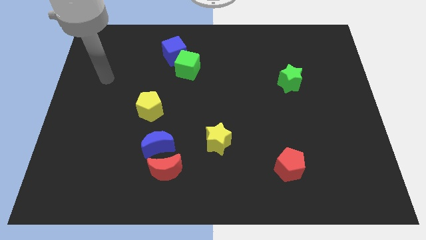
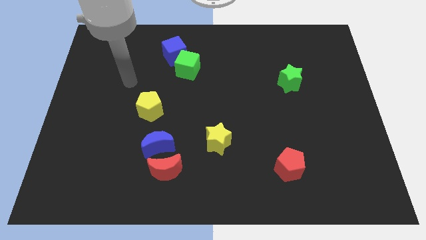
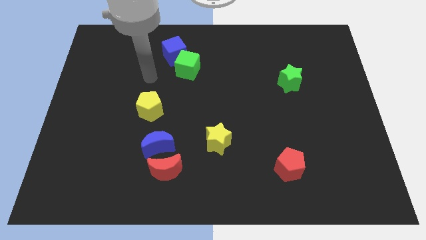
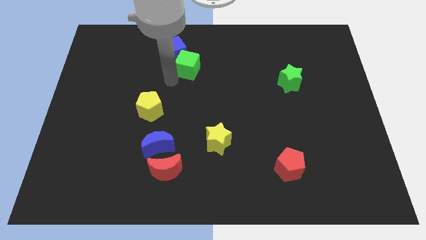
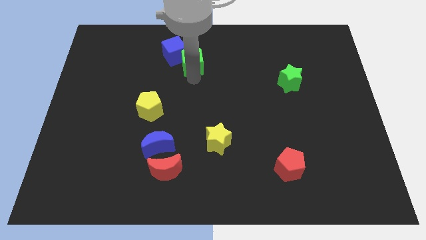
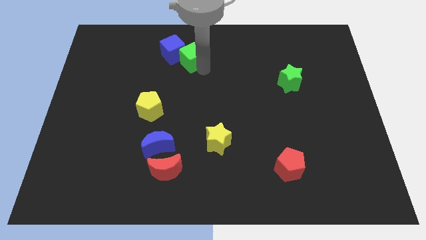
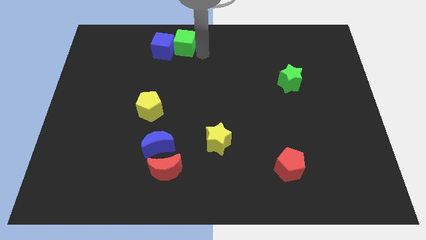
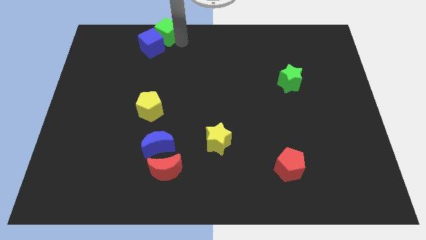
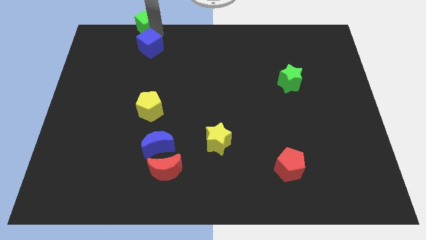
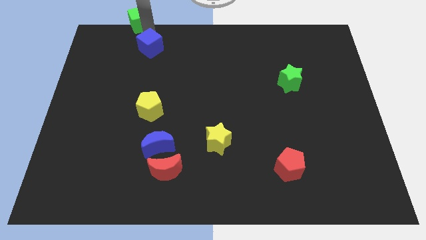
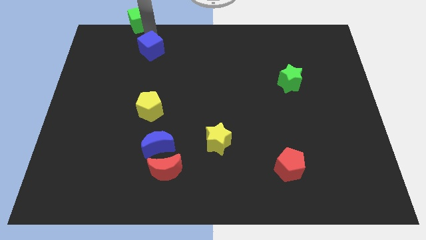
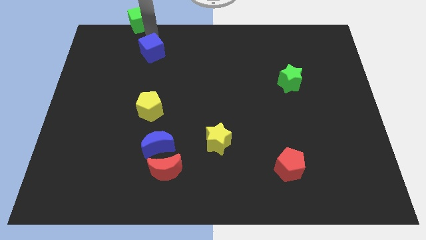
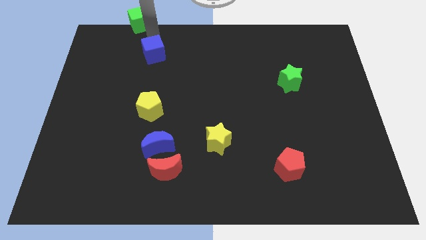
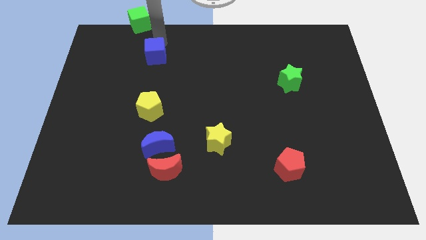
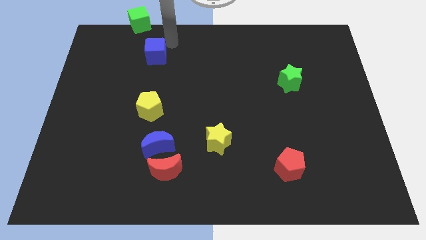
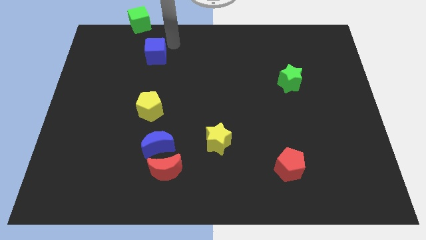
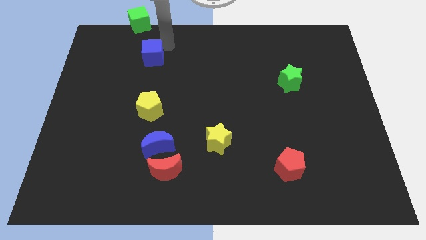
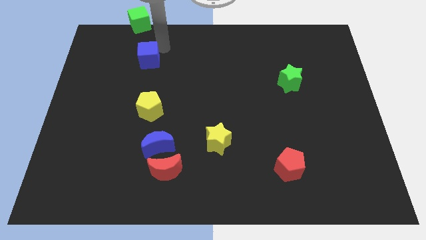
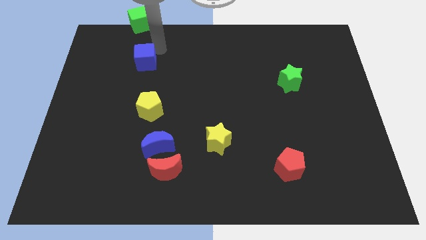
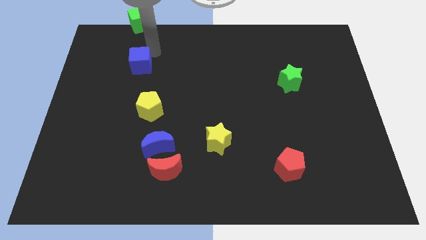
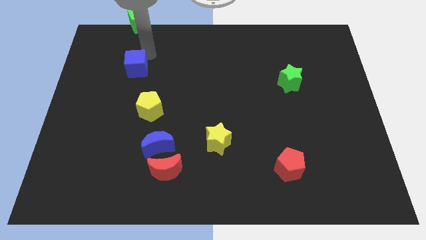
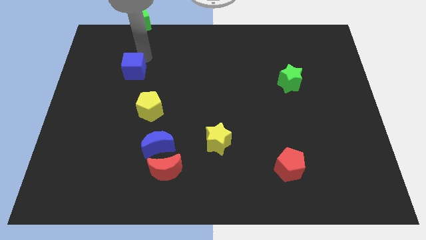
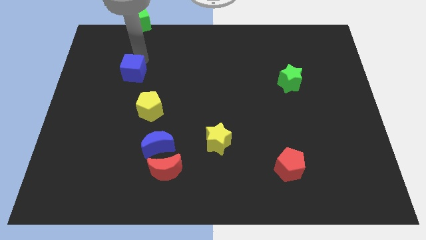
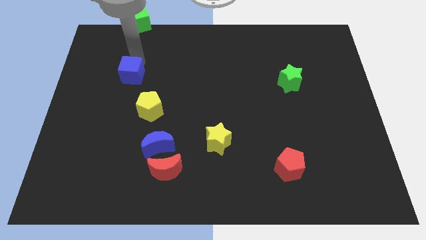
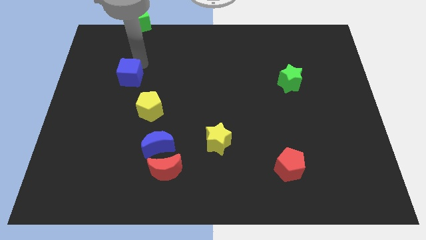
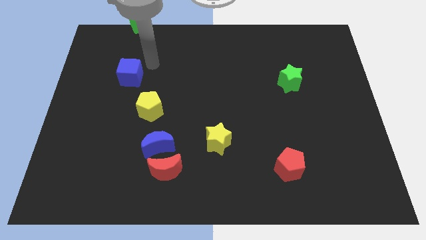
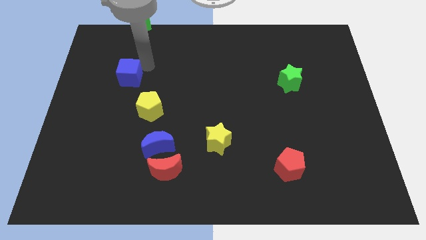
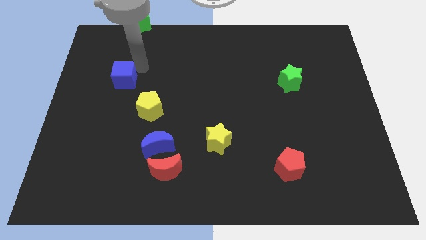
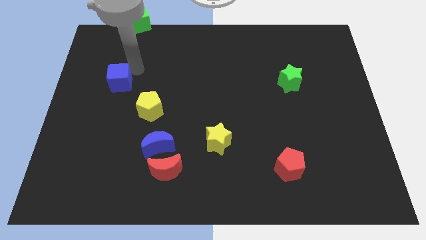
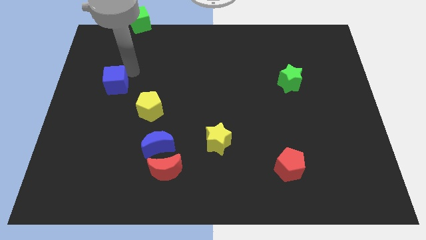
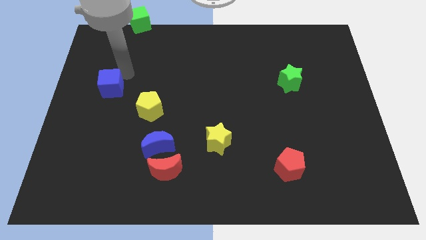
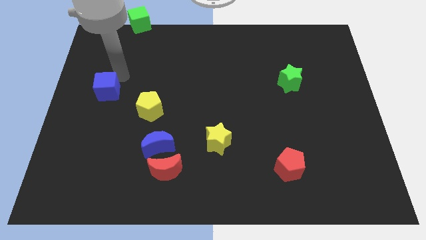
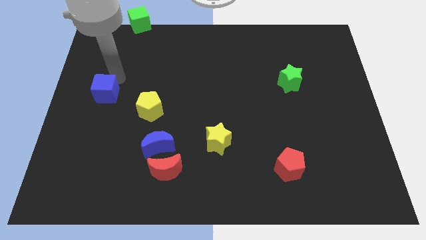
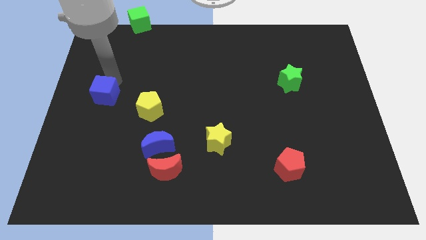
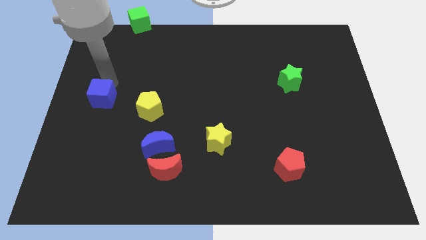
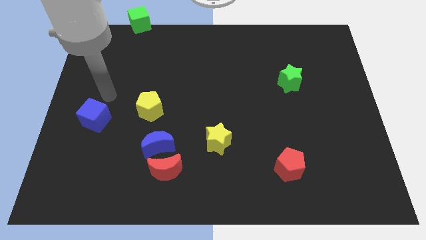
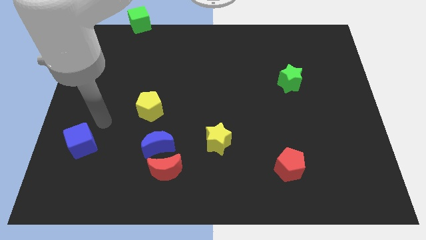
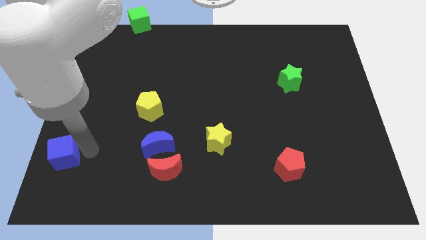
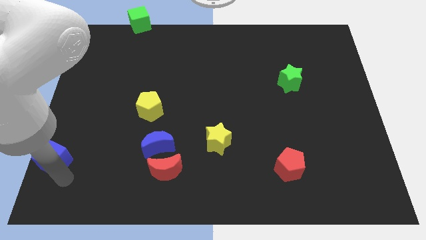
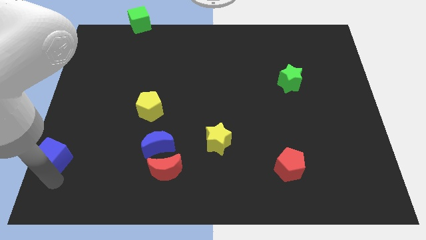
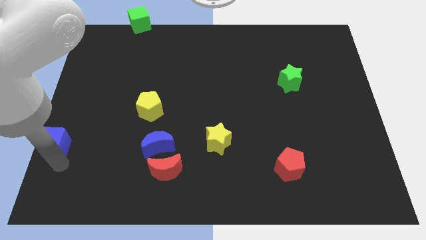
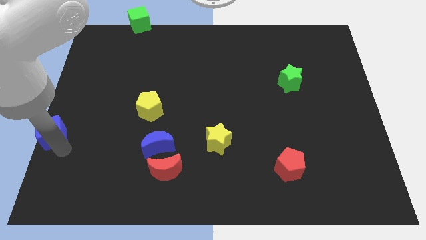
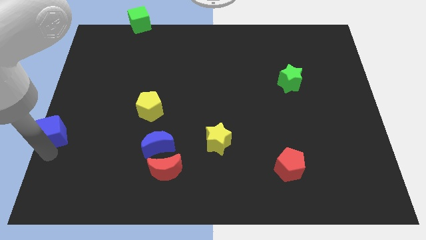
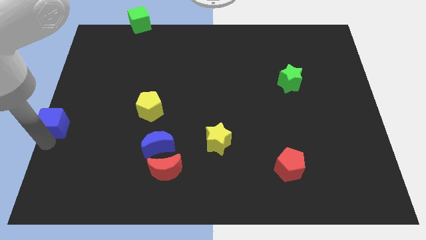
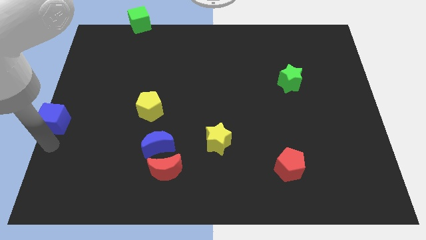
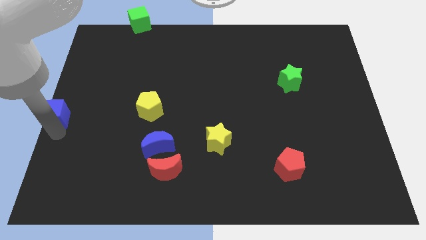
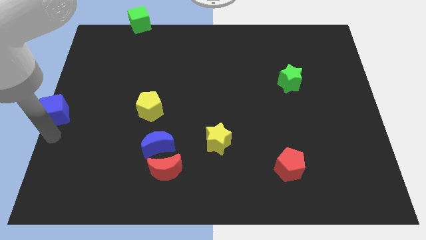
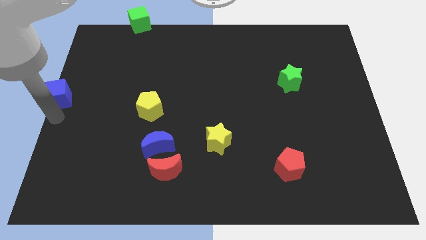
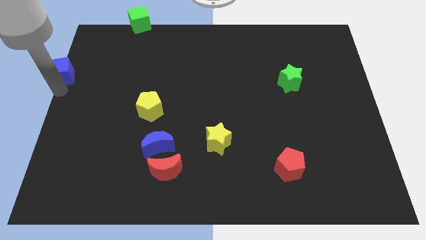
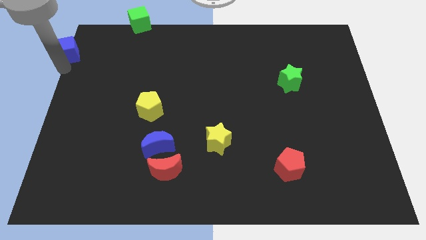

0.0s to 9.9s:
put the blue cube to the top left of the board

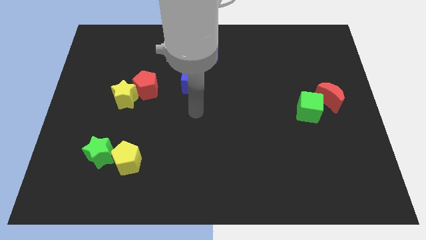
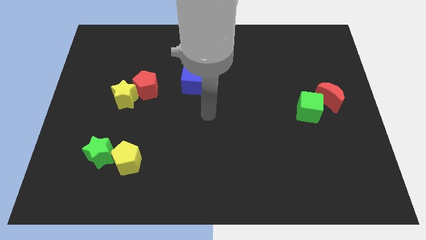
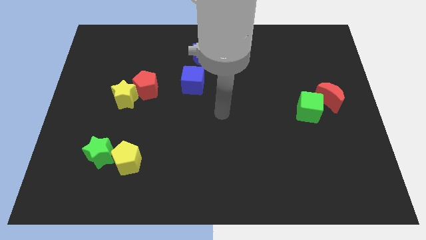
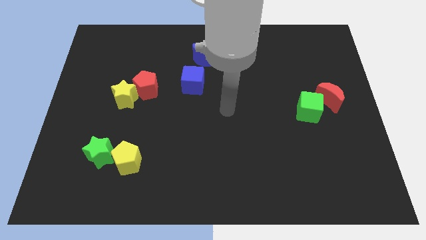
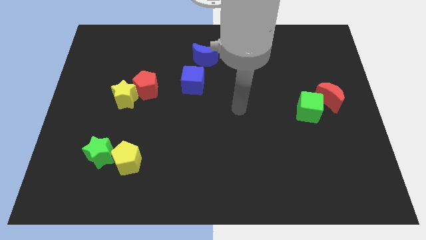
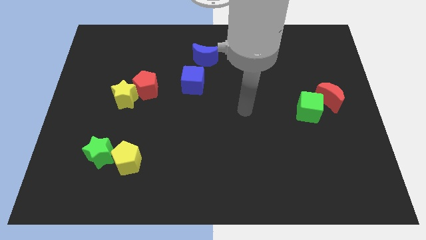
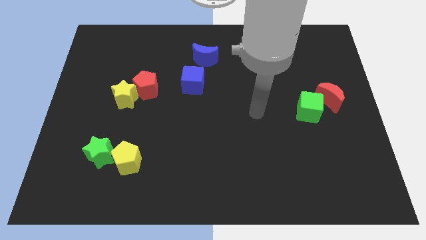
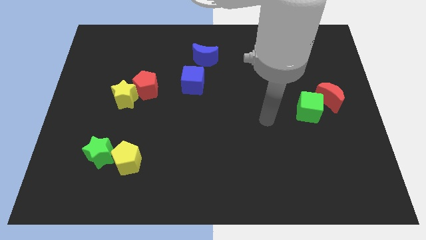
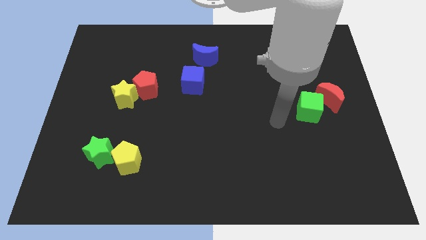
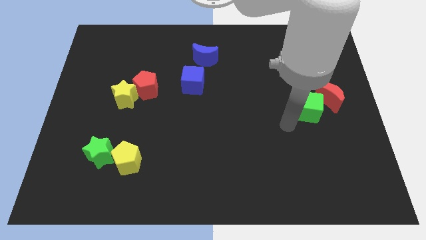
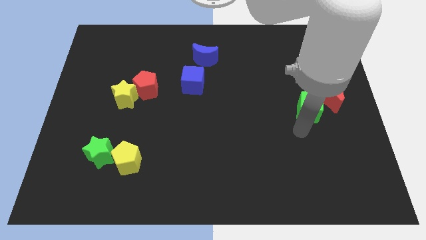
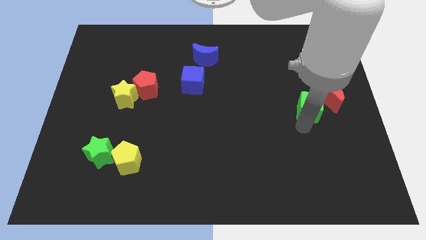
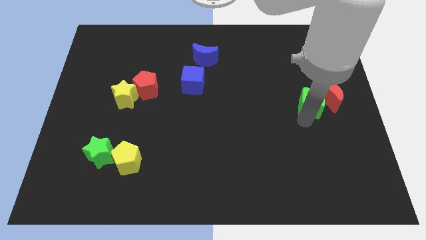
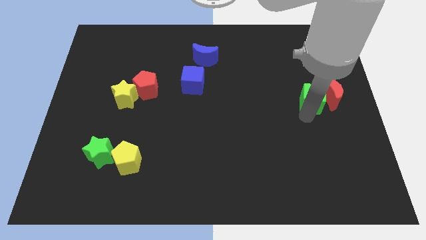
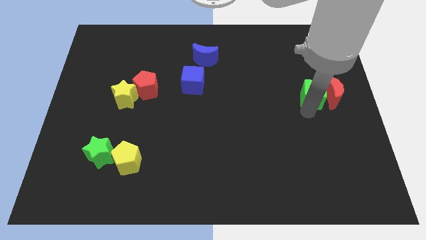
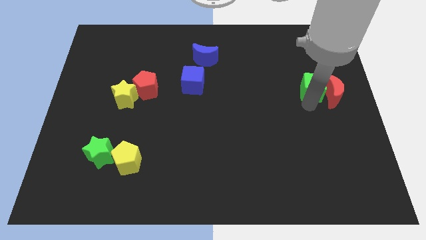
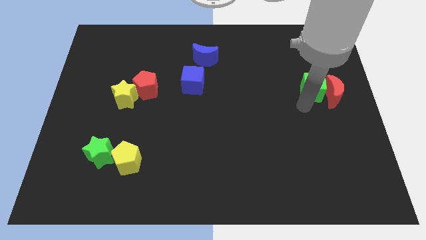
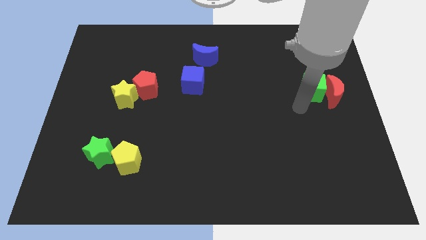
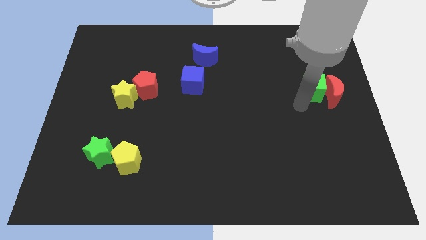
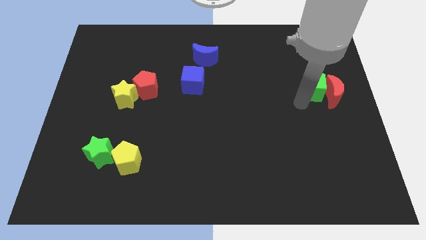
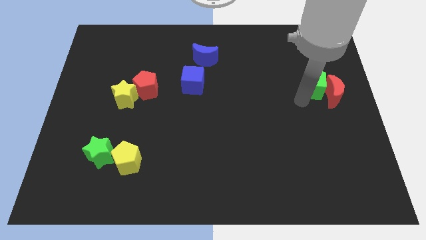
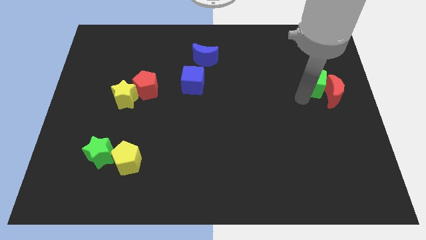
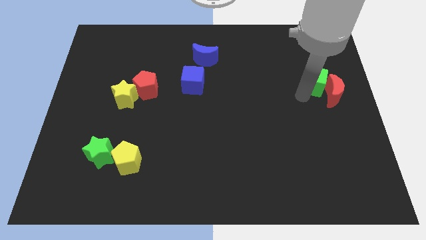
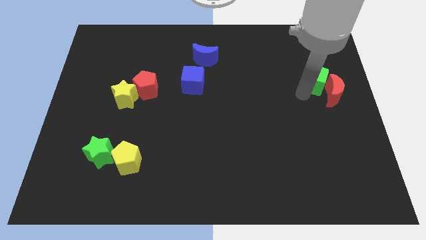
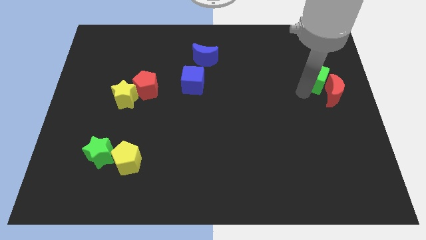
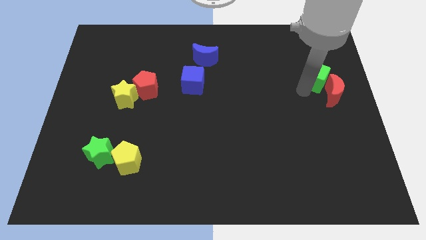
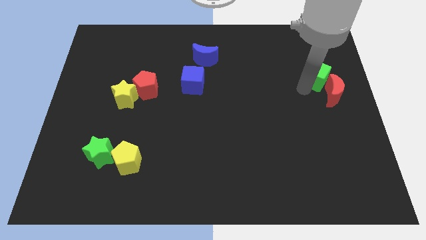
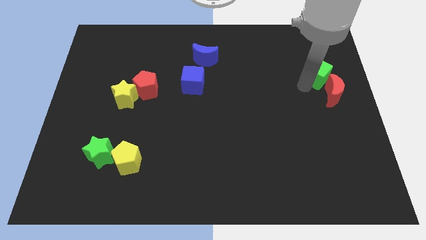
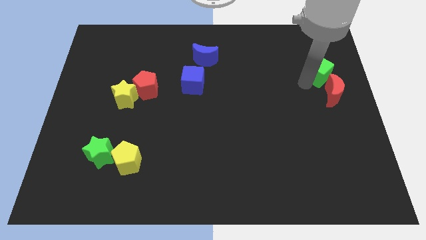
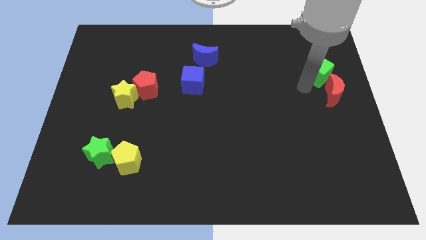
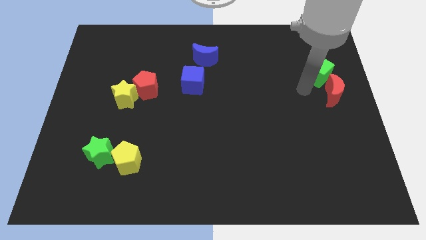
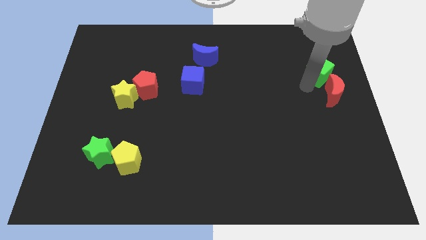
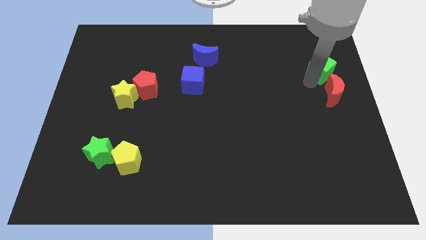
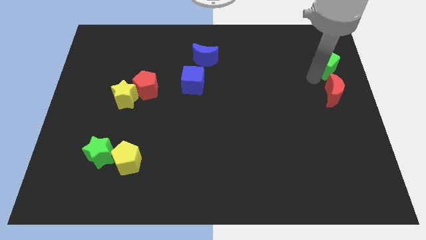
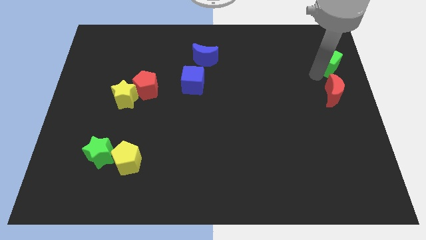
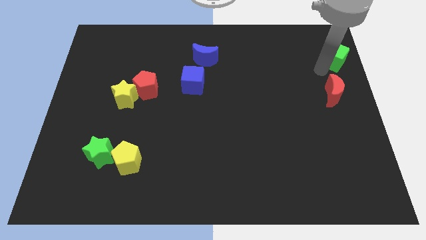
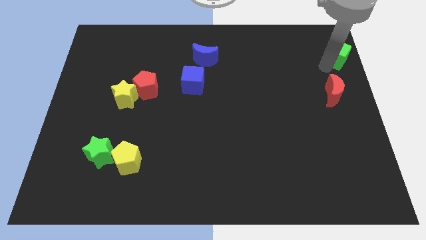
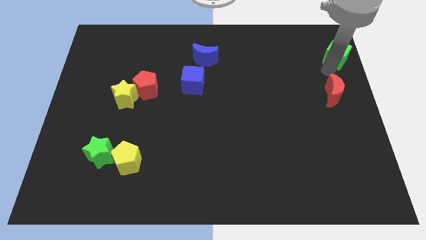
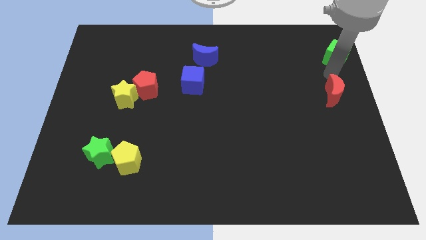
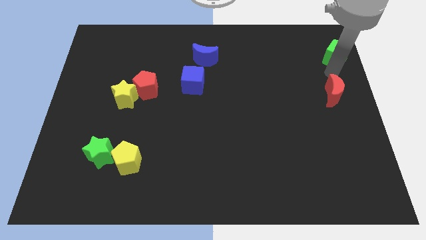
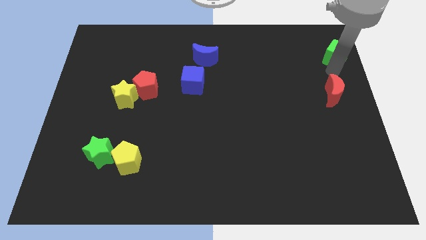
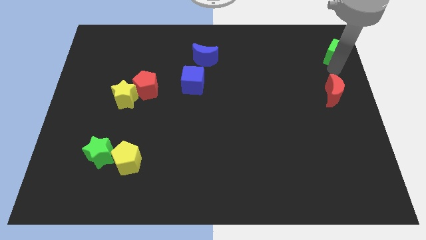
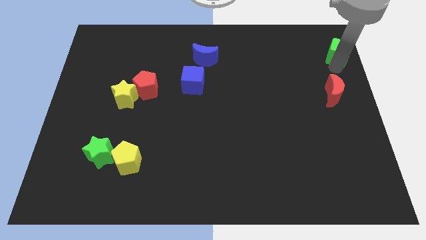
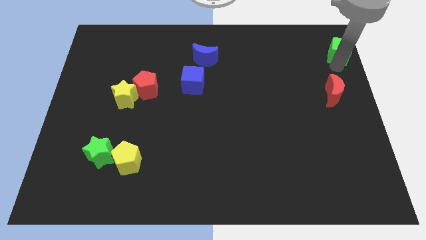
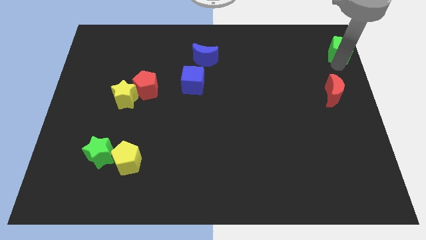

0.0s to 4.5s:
slide the green cube to the upper right corner
